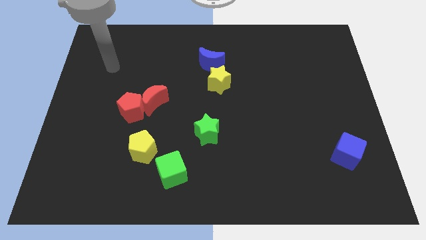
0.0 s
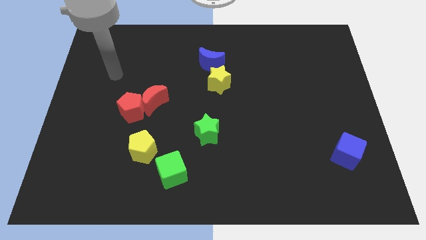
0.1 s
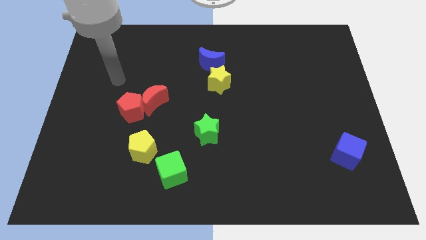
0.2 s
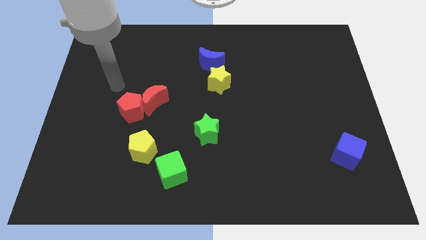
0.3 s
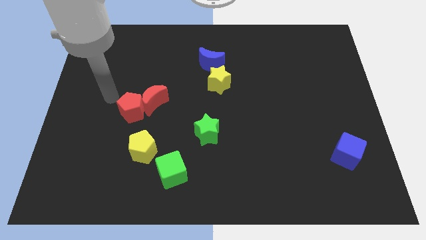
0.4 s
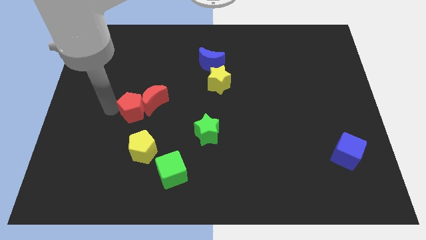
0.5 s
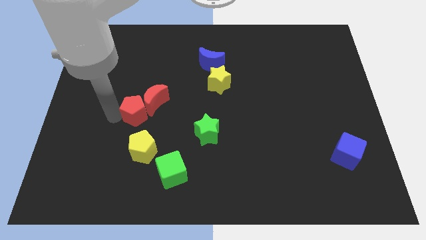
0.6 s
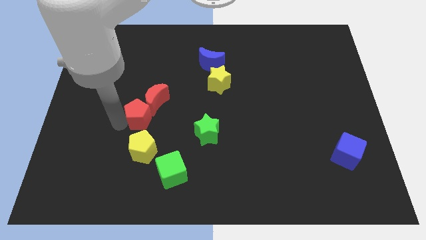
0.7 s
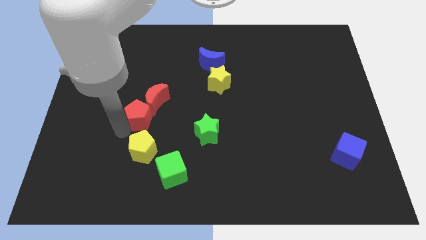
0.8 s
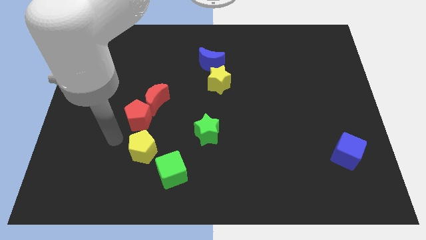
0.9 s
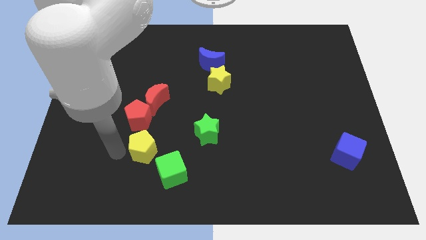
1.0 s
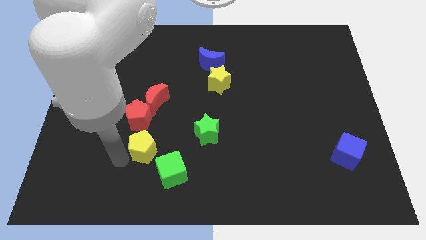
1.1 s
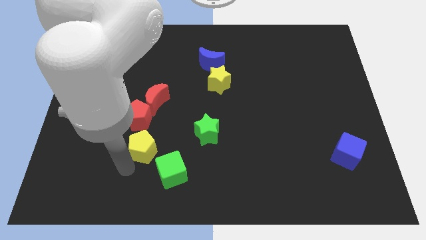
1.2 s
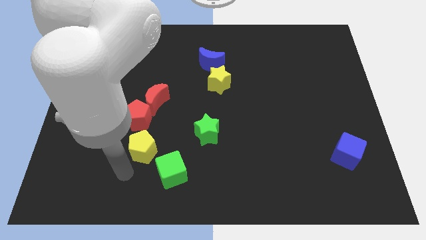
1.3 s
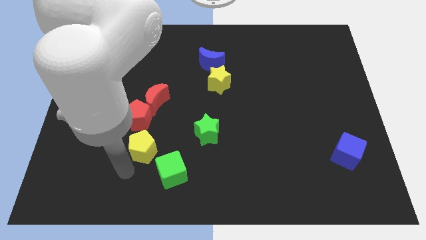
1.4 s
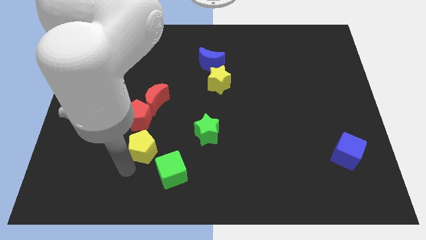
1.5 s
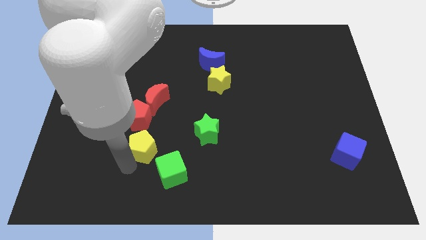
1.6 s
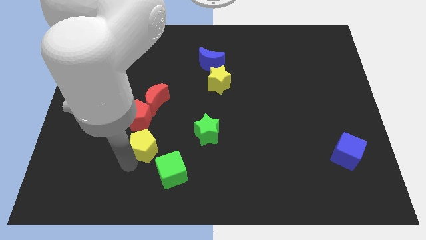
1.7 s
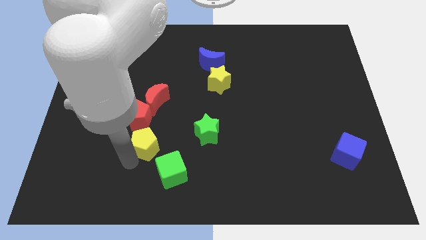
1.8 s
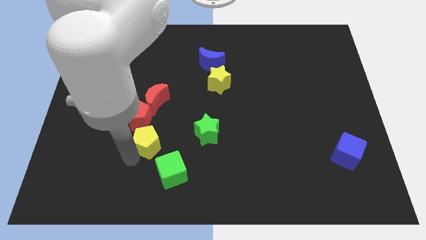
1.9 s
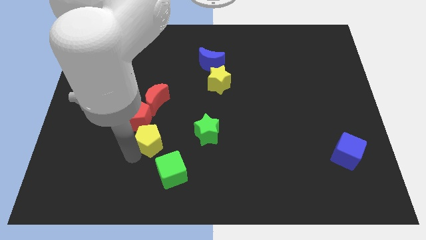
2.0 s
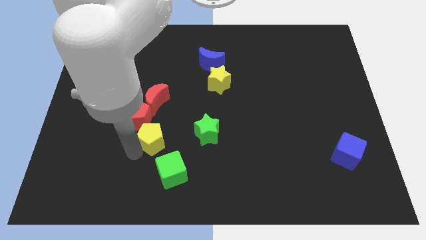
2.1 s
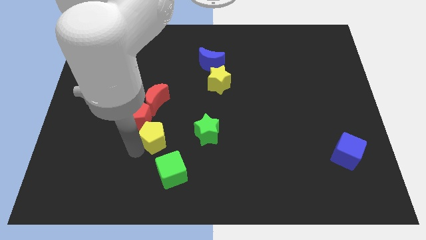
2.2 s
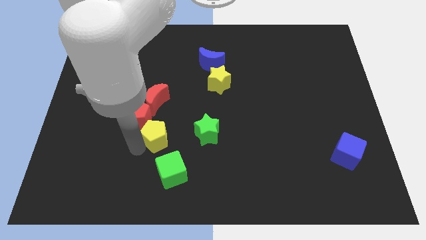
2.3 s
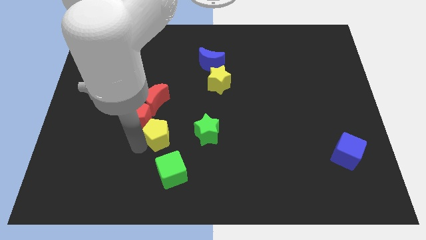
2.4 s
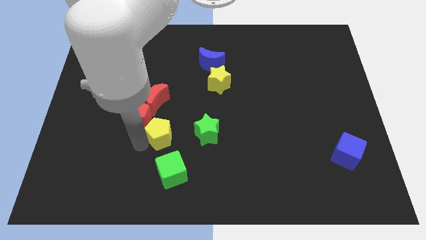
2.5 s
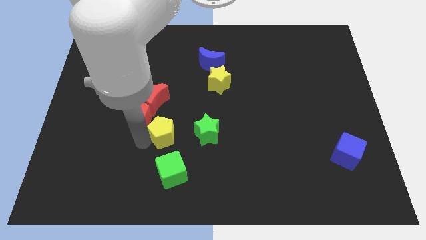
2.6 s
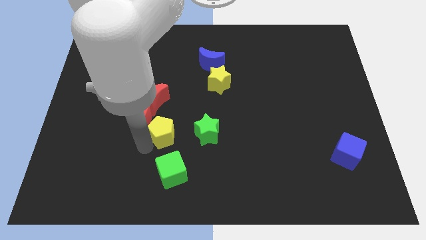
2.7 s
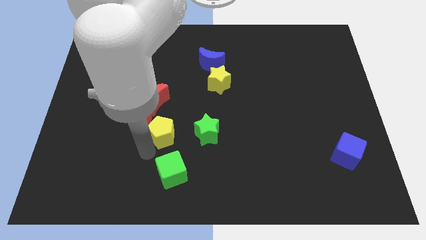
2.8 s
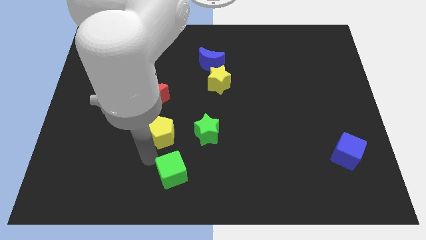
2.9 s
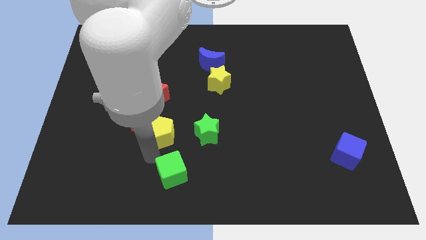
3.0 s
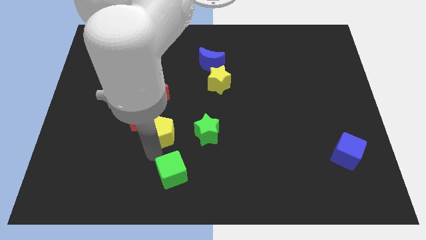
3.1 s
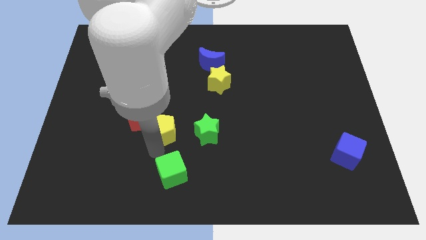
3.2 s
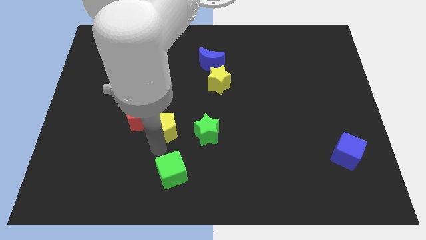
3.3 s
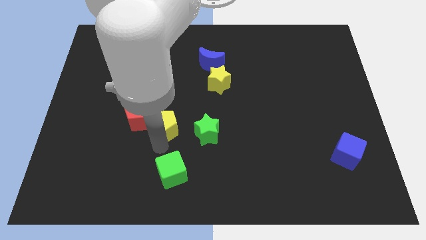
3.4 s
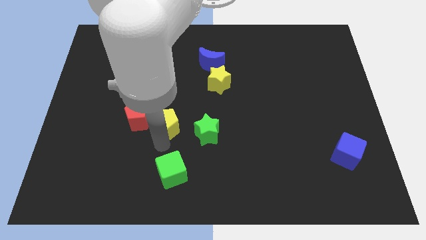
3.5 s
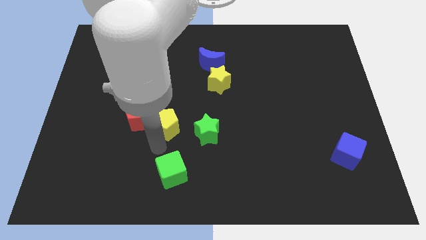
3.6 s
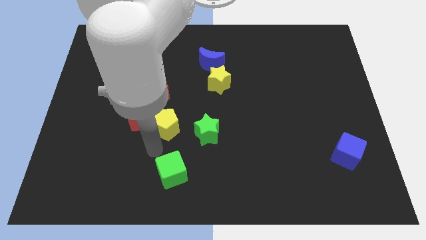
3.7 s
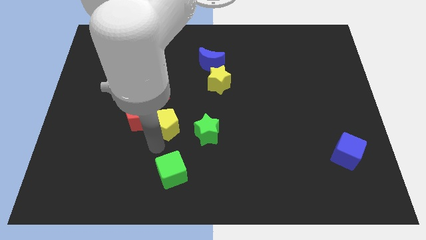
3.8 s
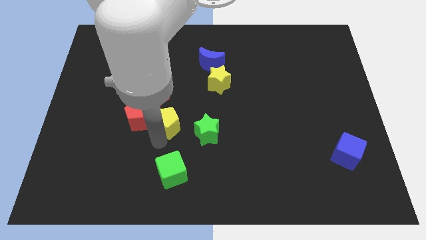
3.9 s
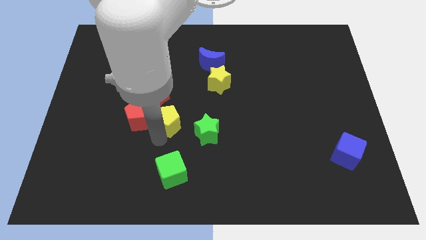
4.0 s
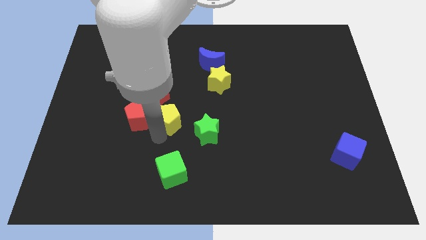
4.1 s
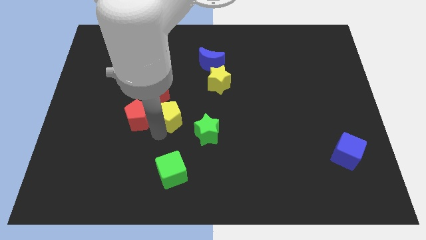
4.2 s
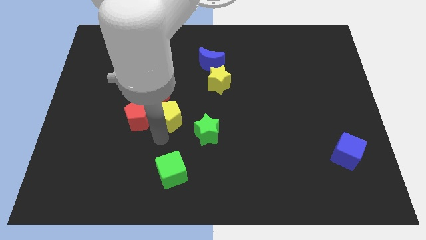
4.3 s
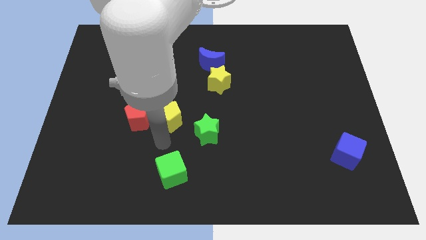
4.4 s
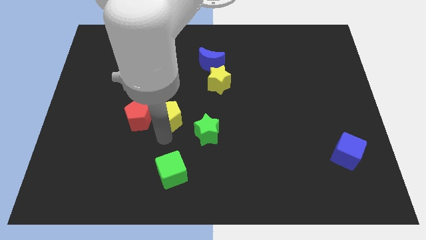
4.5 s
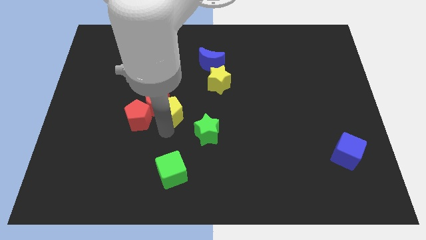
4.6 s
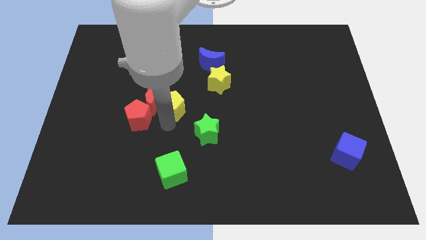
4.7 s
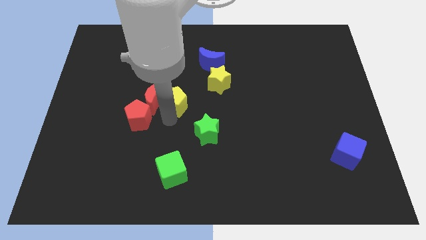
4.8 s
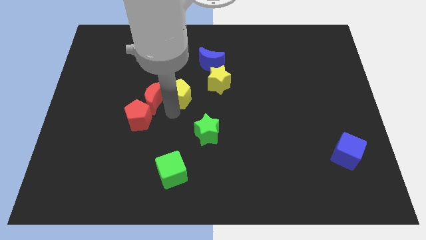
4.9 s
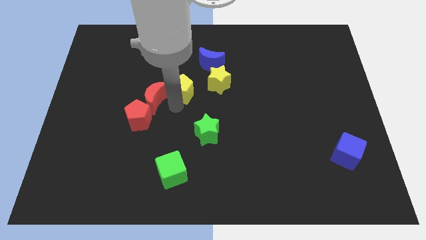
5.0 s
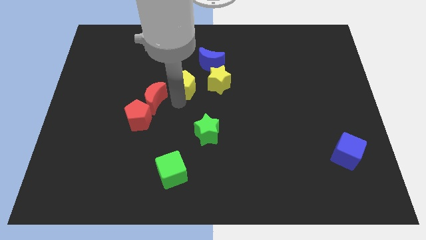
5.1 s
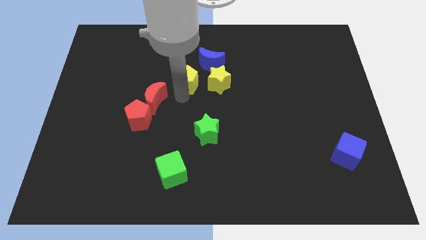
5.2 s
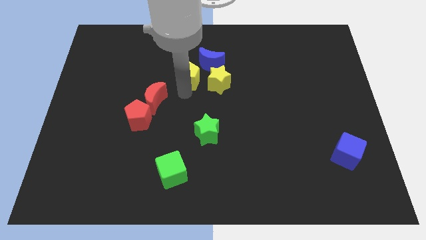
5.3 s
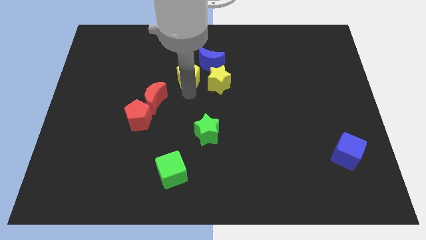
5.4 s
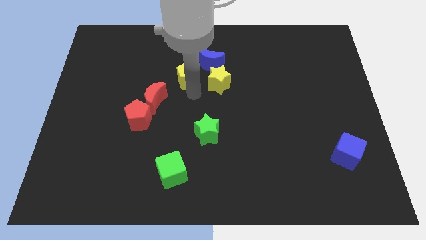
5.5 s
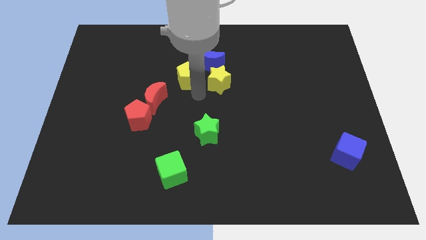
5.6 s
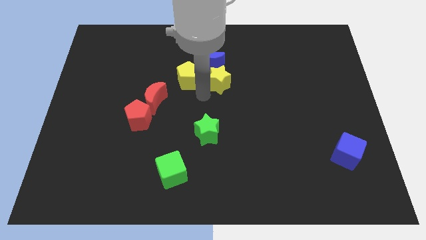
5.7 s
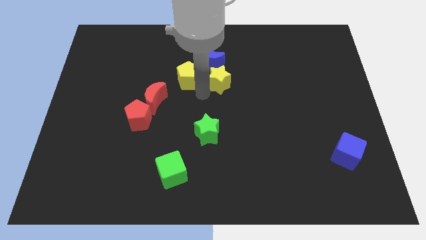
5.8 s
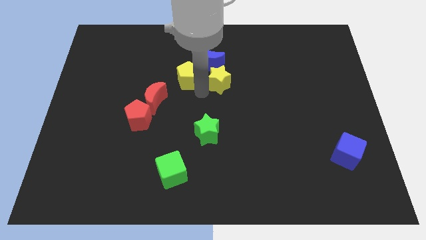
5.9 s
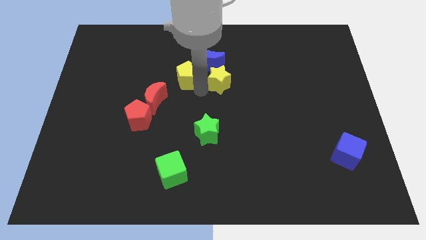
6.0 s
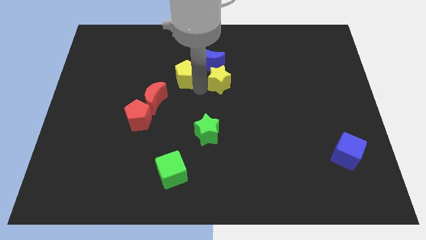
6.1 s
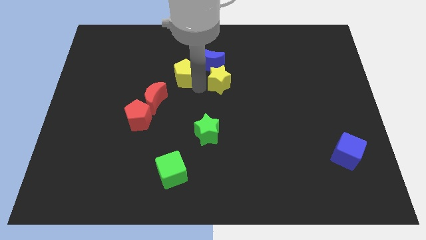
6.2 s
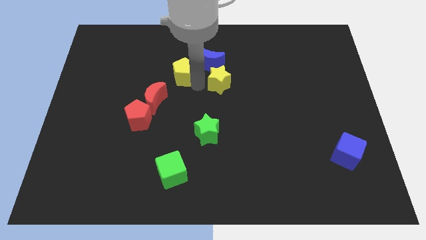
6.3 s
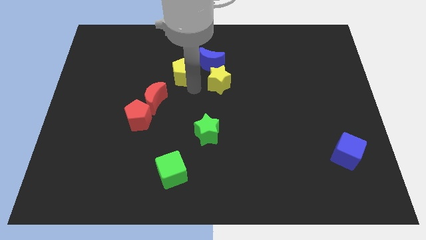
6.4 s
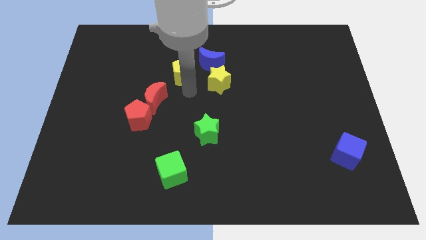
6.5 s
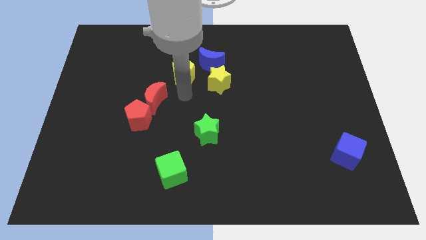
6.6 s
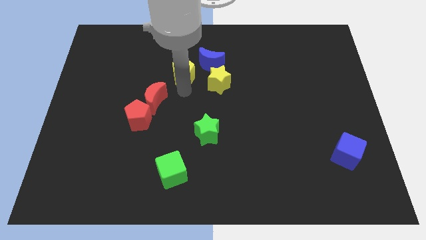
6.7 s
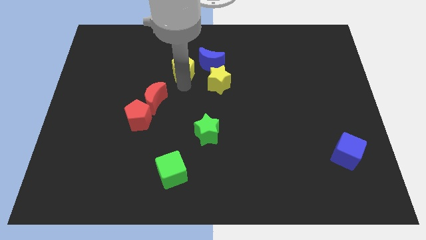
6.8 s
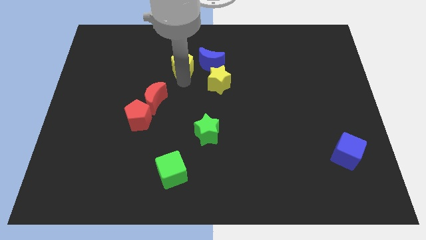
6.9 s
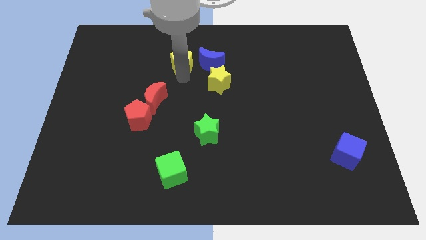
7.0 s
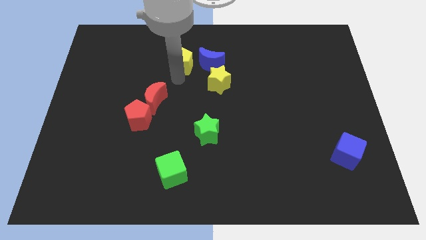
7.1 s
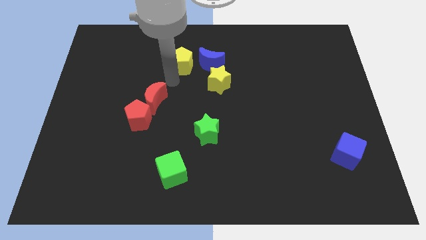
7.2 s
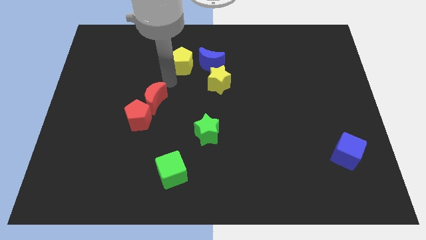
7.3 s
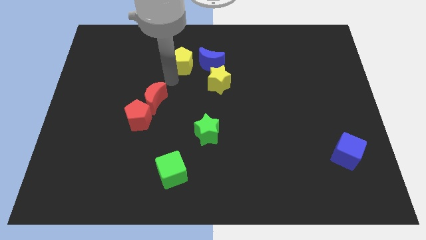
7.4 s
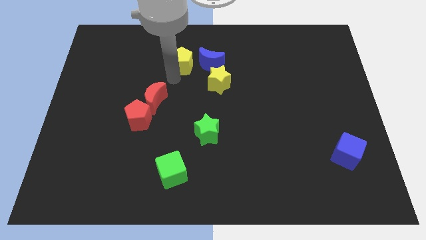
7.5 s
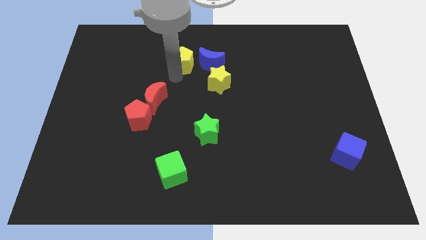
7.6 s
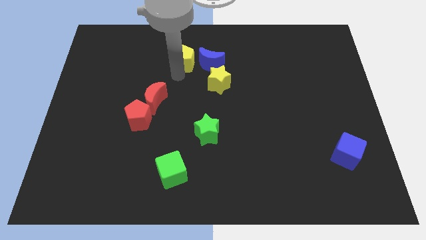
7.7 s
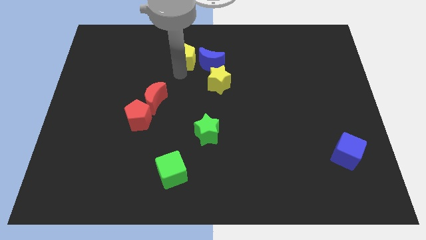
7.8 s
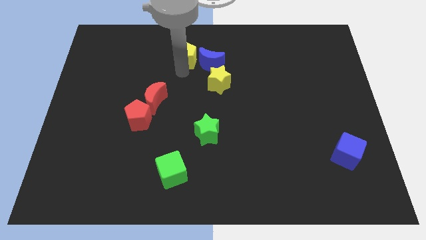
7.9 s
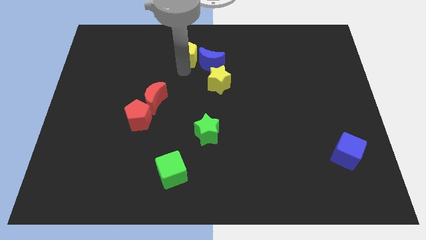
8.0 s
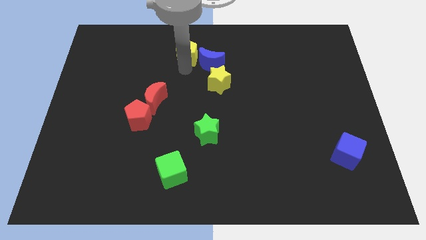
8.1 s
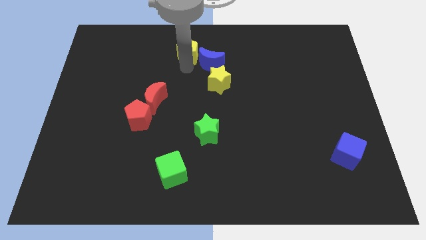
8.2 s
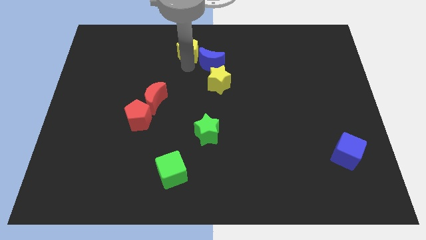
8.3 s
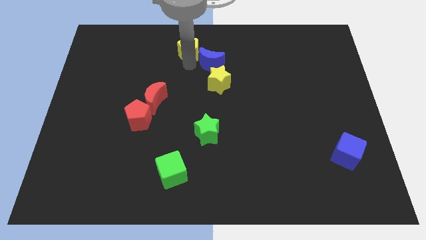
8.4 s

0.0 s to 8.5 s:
put the yellow pentagon to the top side
